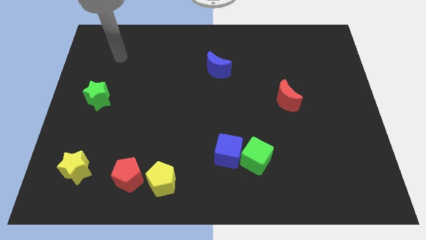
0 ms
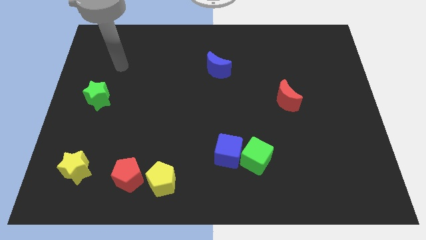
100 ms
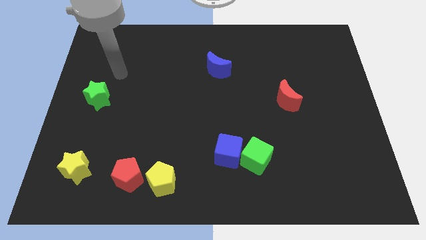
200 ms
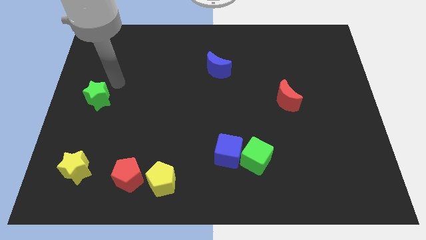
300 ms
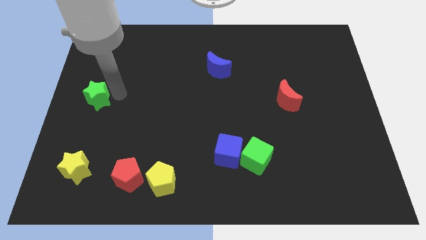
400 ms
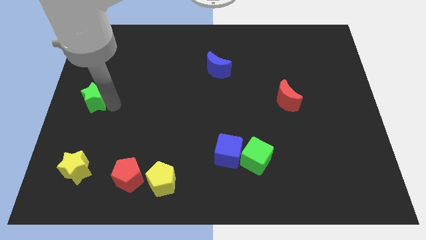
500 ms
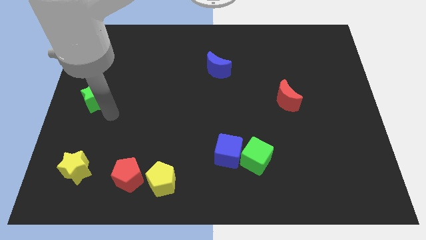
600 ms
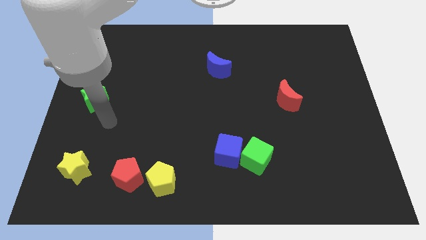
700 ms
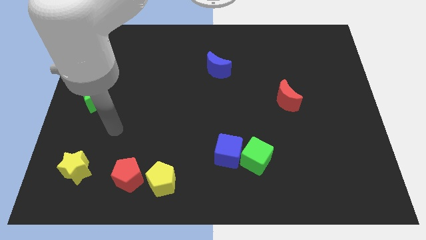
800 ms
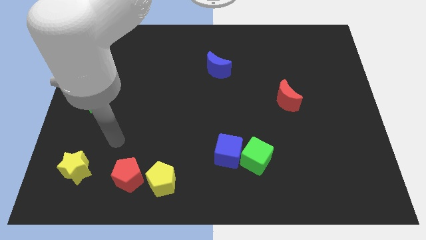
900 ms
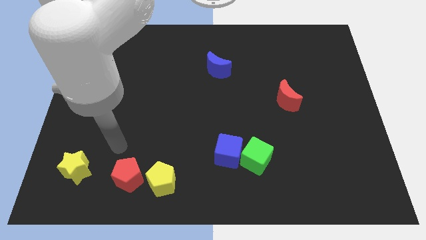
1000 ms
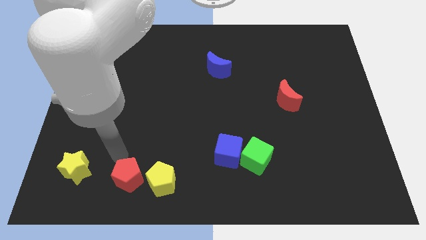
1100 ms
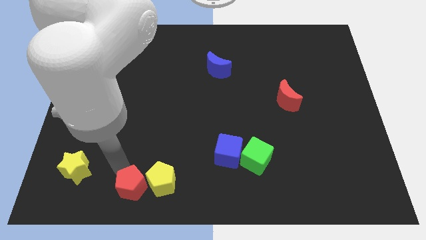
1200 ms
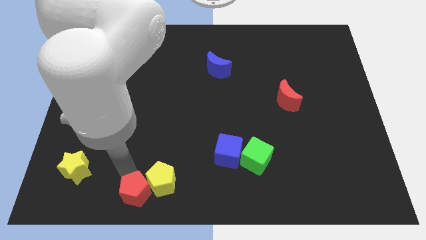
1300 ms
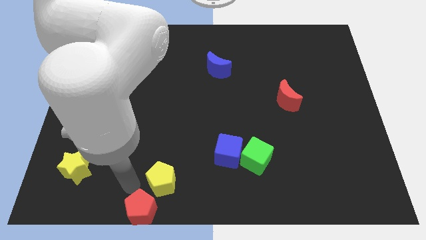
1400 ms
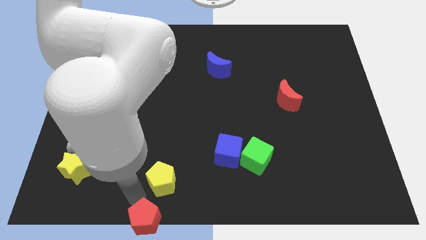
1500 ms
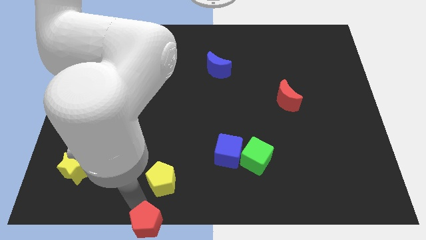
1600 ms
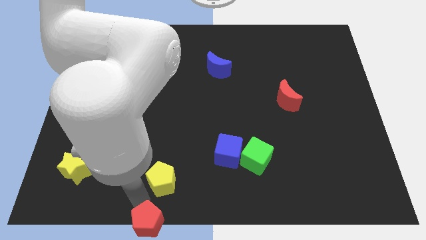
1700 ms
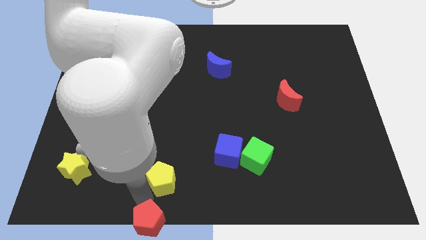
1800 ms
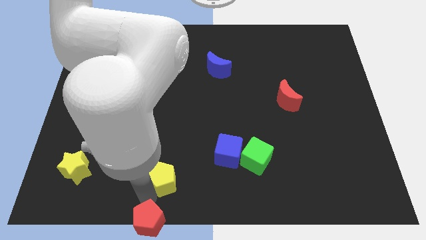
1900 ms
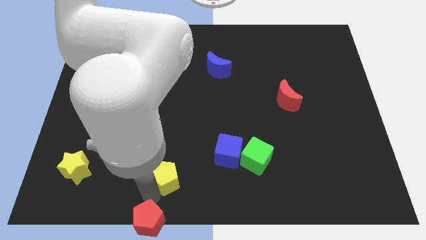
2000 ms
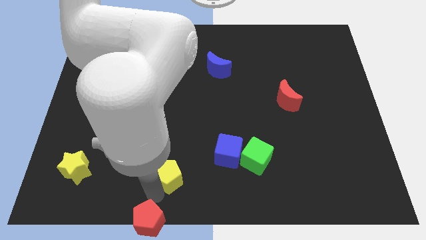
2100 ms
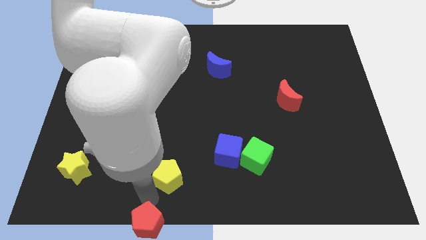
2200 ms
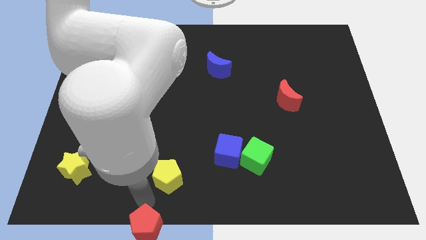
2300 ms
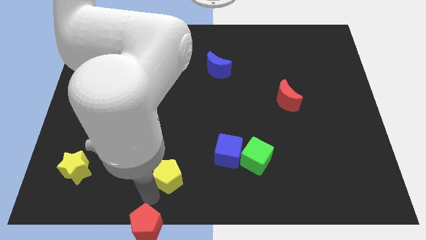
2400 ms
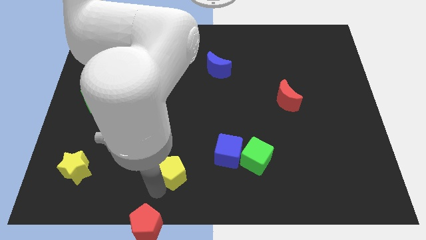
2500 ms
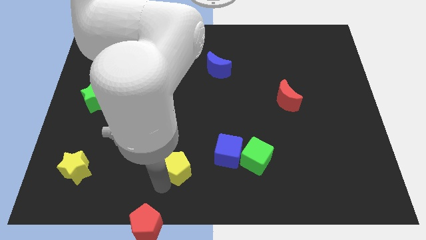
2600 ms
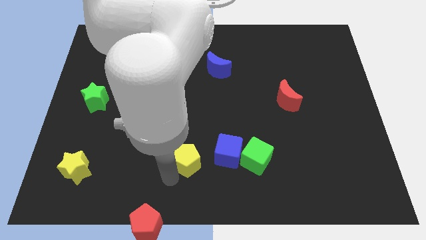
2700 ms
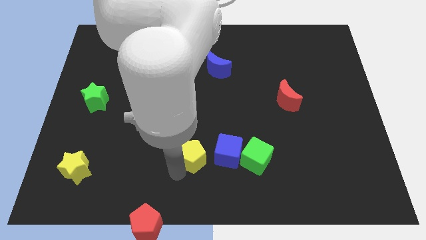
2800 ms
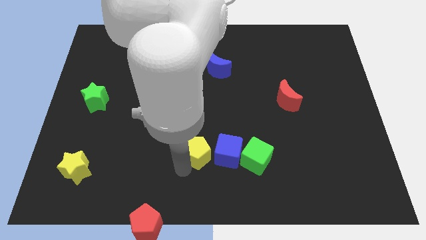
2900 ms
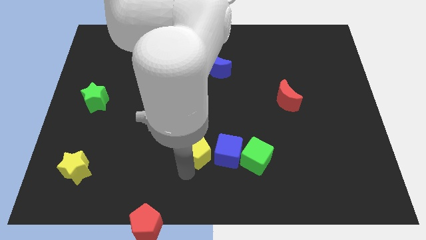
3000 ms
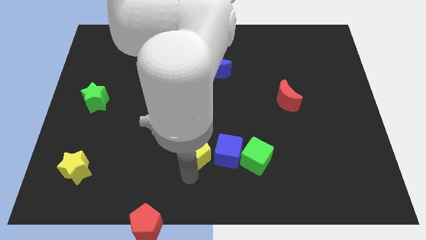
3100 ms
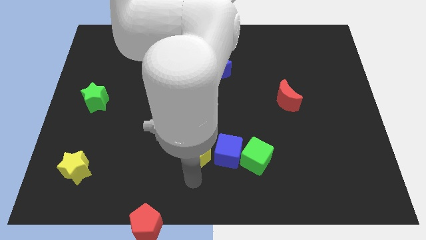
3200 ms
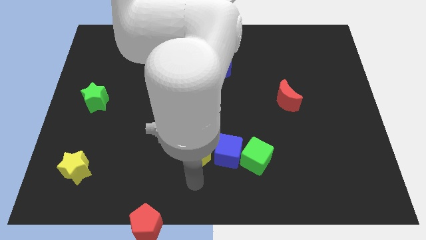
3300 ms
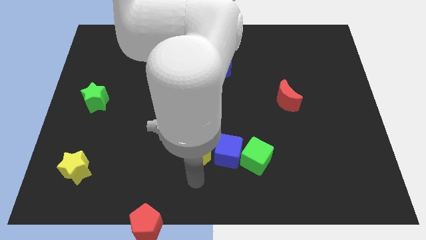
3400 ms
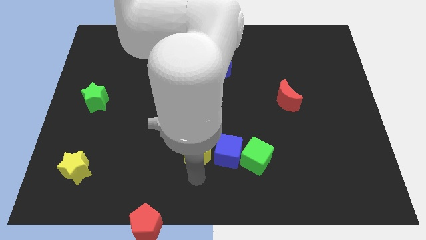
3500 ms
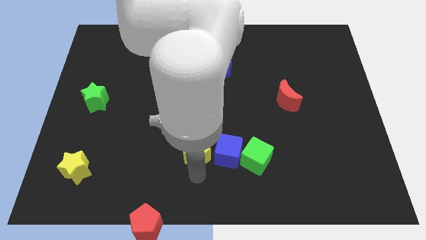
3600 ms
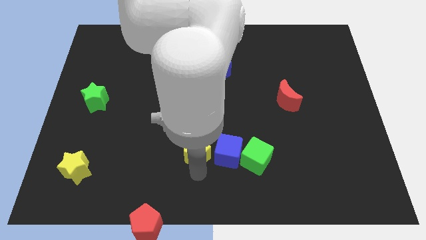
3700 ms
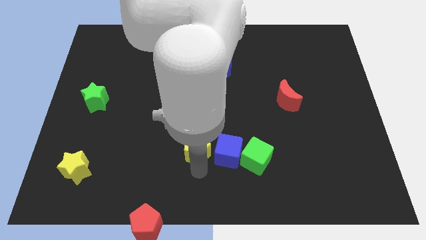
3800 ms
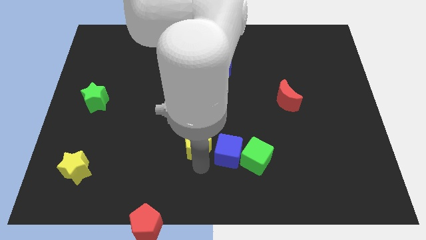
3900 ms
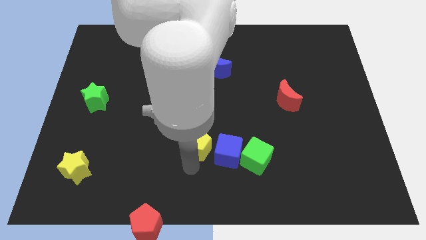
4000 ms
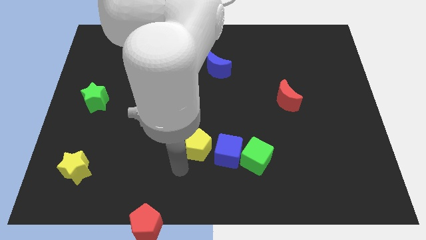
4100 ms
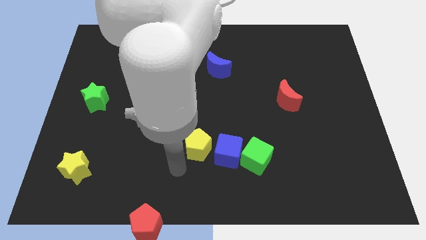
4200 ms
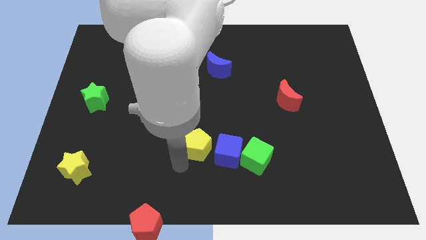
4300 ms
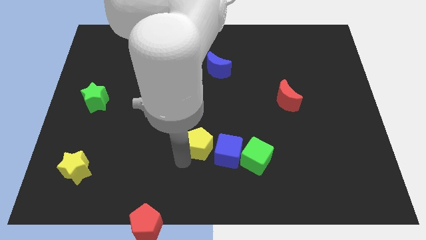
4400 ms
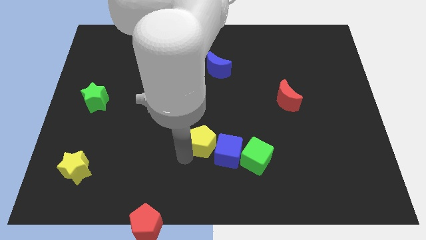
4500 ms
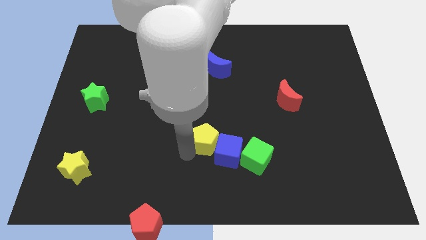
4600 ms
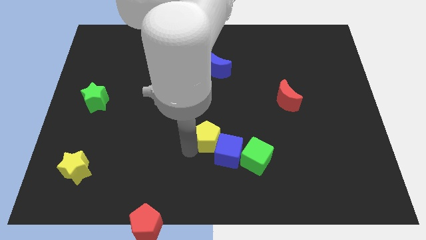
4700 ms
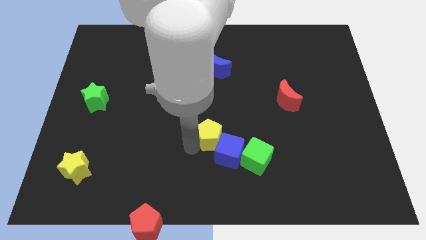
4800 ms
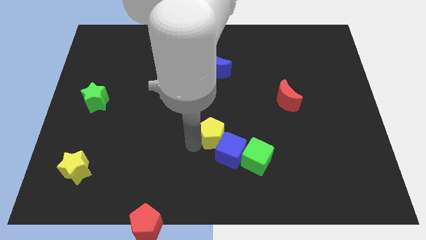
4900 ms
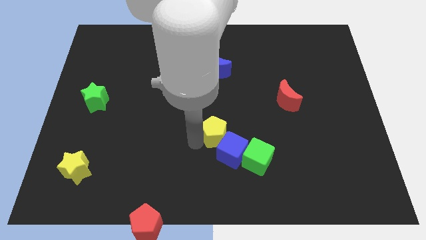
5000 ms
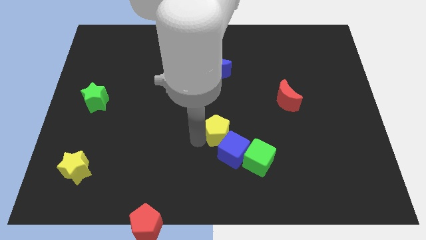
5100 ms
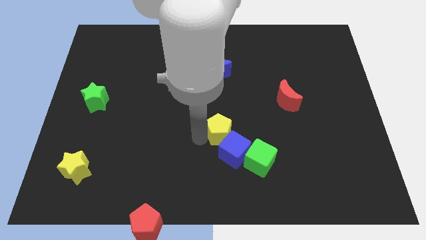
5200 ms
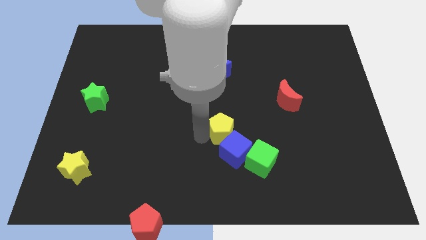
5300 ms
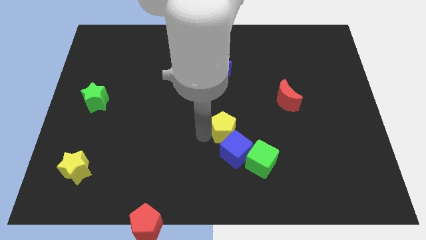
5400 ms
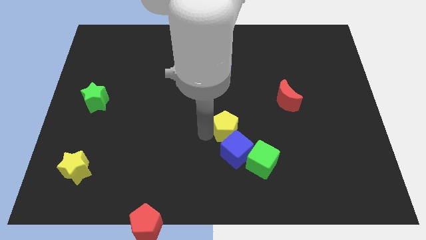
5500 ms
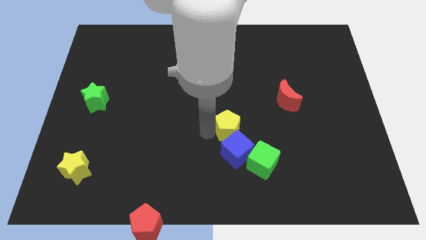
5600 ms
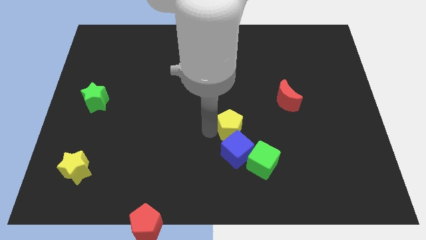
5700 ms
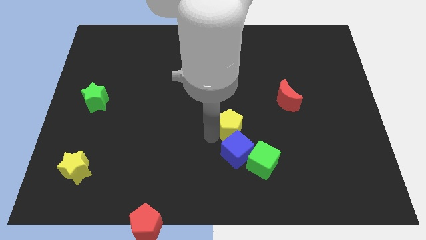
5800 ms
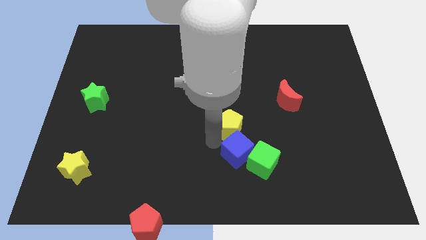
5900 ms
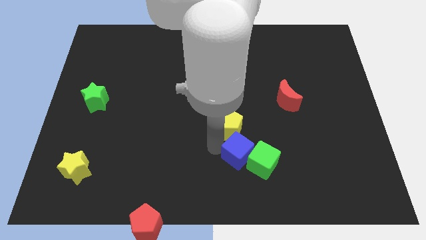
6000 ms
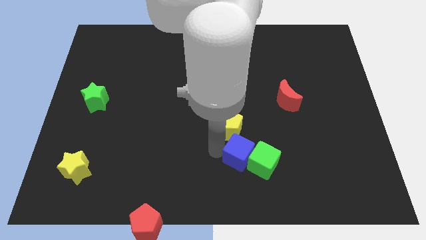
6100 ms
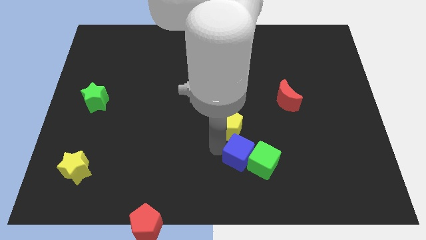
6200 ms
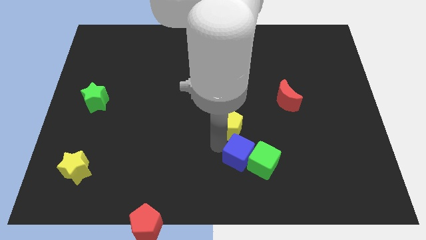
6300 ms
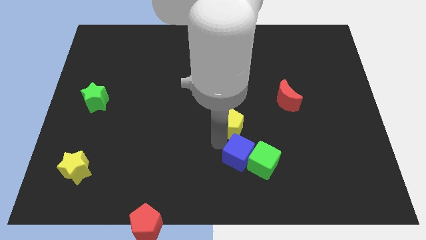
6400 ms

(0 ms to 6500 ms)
push the yellow pentagon upwards and then right

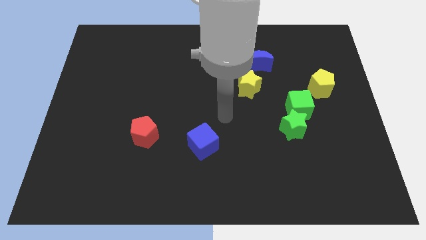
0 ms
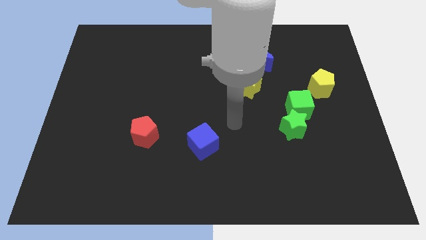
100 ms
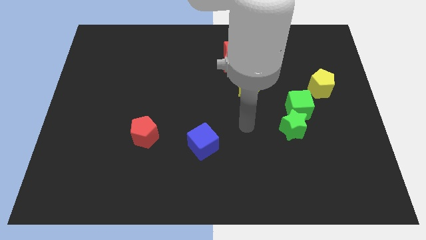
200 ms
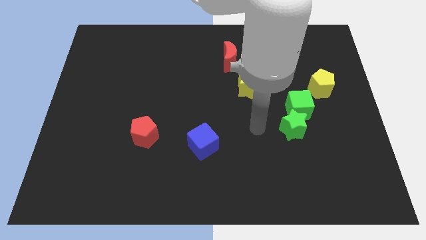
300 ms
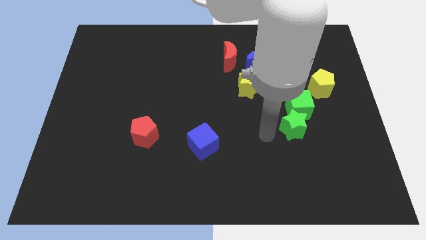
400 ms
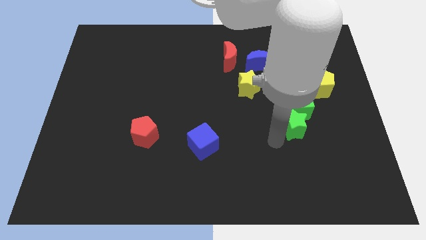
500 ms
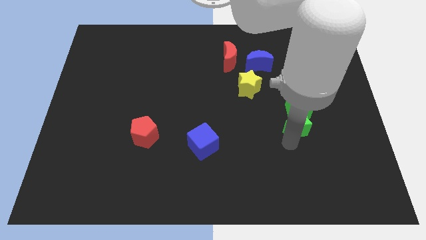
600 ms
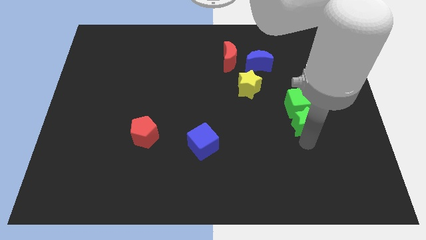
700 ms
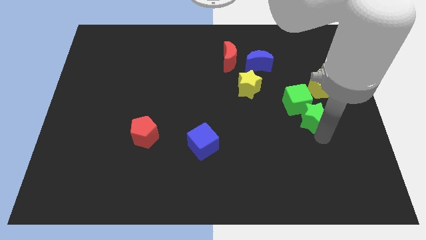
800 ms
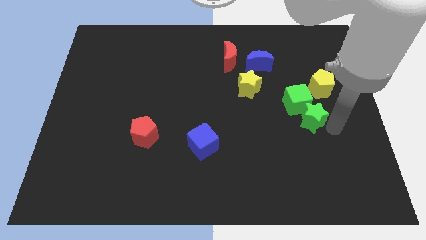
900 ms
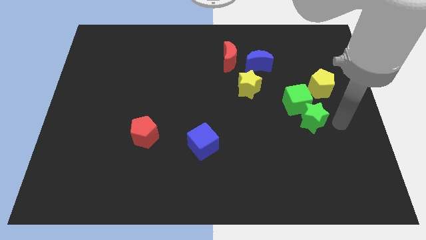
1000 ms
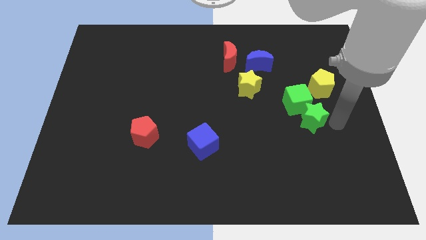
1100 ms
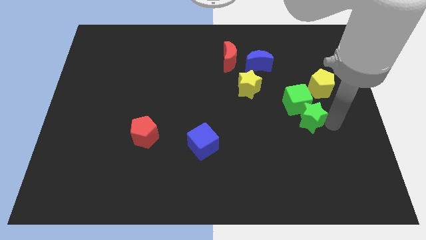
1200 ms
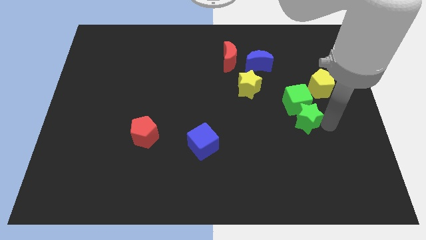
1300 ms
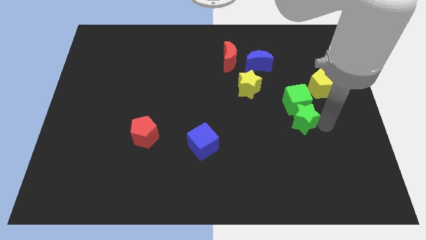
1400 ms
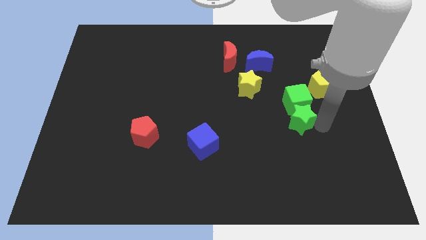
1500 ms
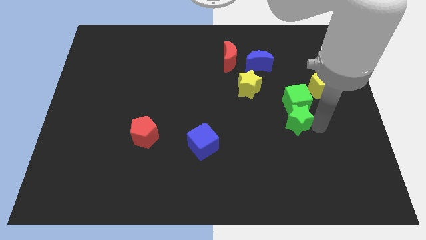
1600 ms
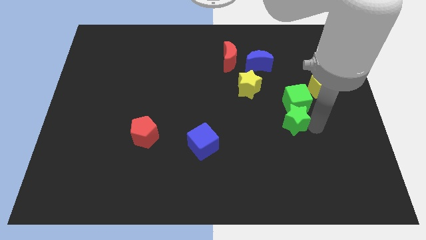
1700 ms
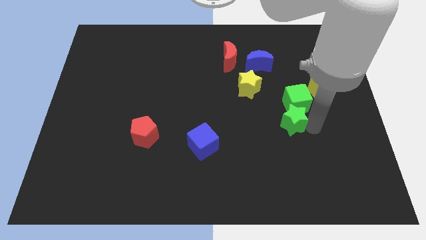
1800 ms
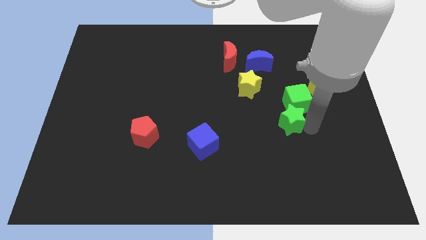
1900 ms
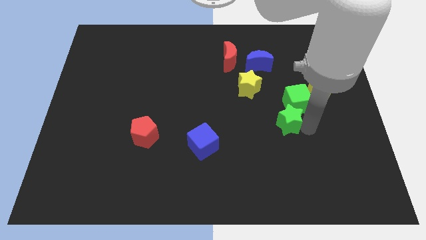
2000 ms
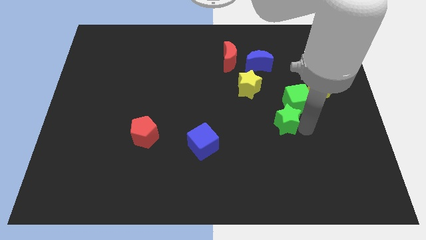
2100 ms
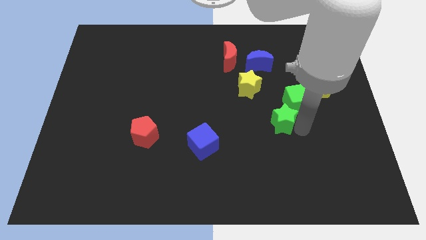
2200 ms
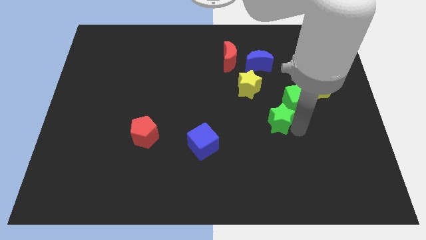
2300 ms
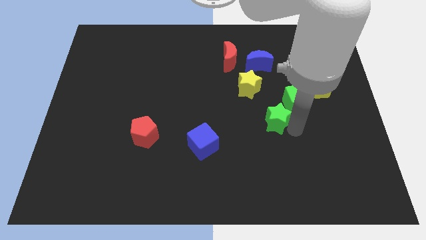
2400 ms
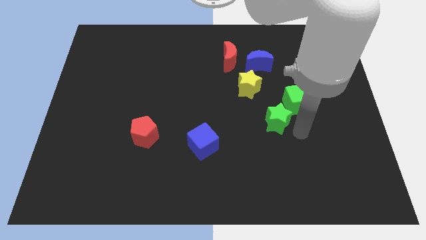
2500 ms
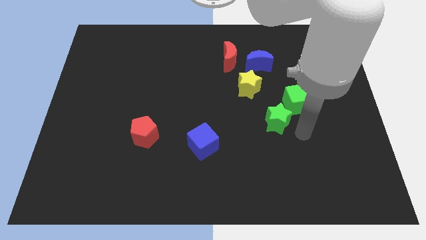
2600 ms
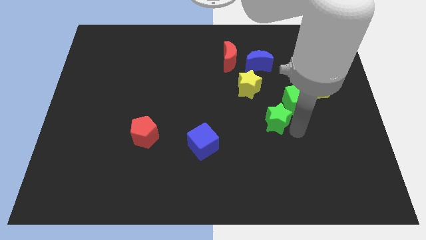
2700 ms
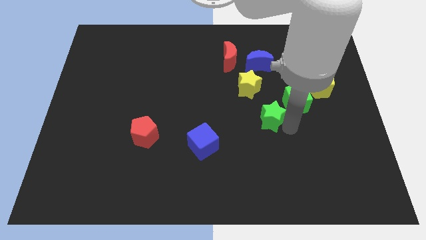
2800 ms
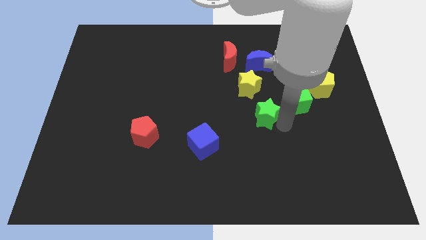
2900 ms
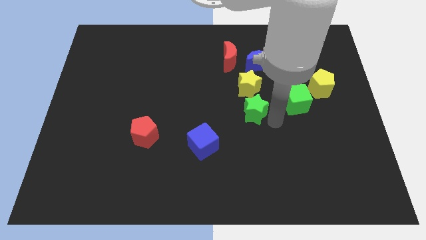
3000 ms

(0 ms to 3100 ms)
move the green star somewhat diagonally upwards and left
